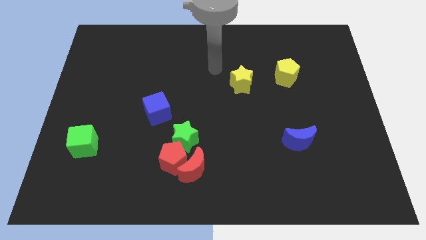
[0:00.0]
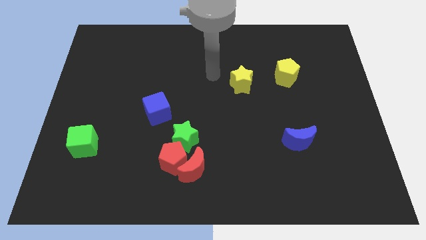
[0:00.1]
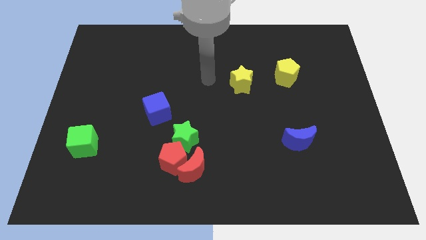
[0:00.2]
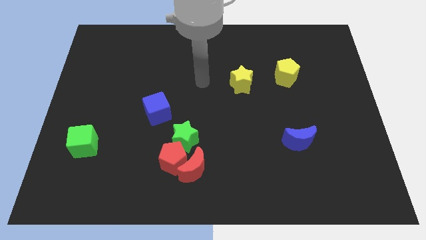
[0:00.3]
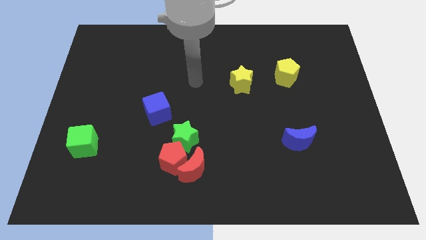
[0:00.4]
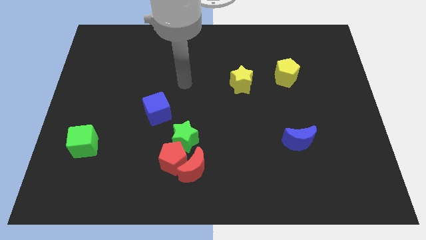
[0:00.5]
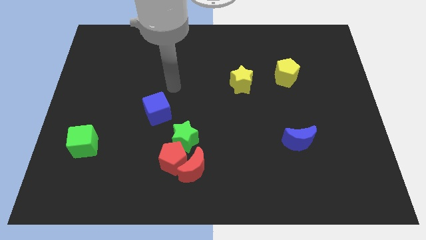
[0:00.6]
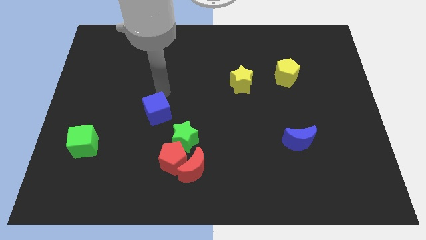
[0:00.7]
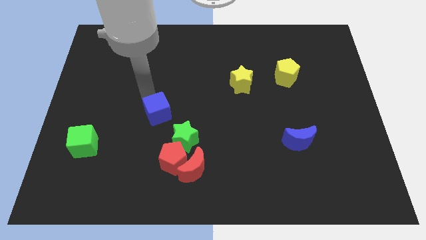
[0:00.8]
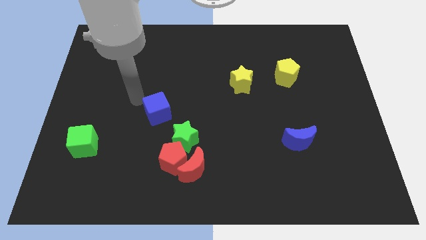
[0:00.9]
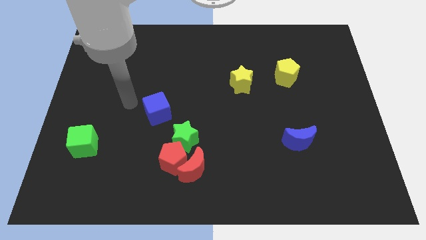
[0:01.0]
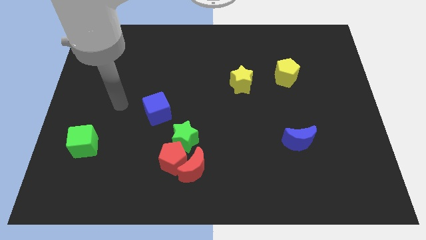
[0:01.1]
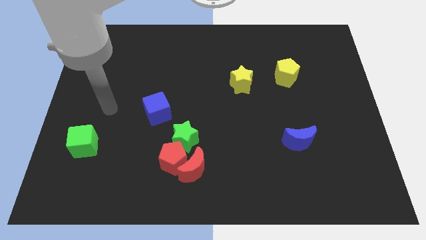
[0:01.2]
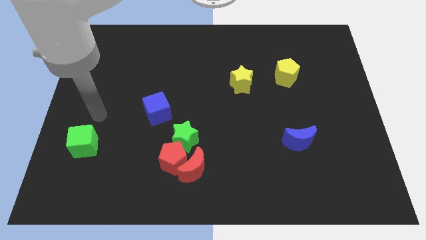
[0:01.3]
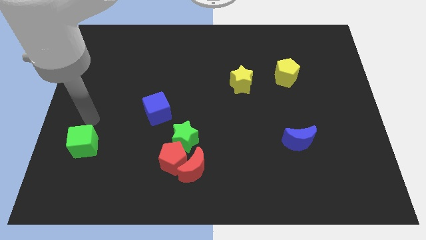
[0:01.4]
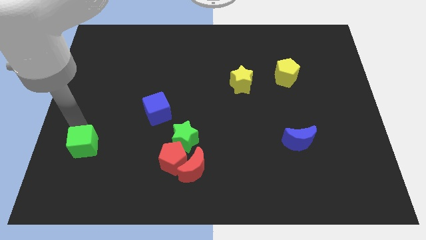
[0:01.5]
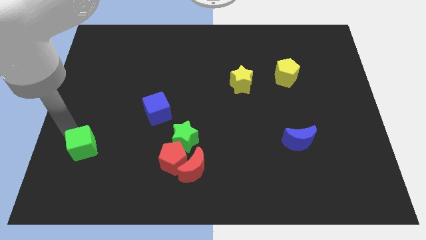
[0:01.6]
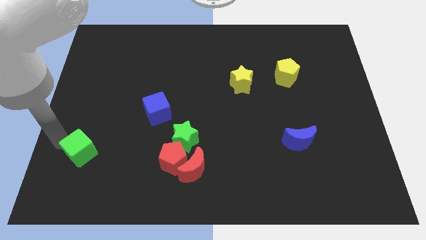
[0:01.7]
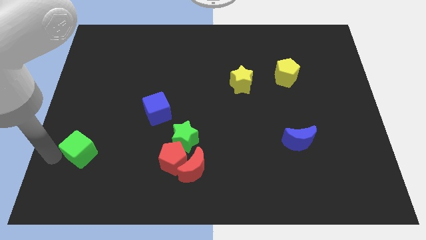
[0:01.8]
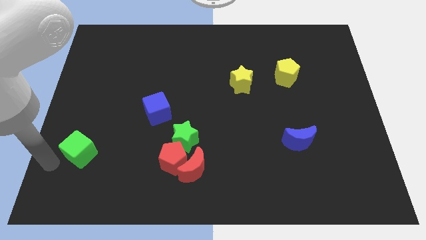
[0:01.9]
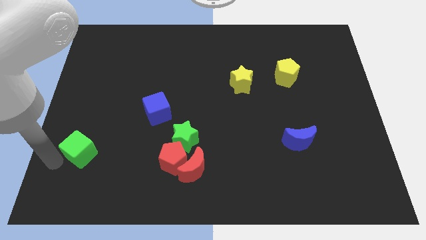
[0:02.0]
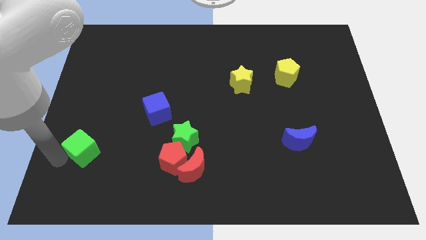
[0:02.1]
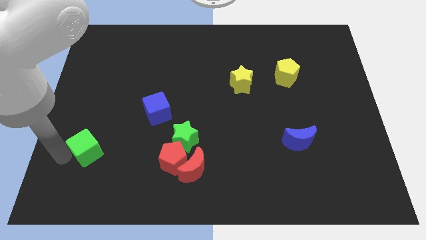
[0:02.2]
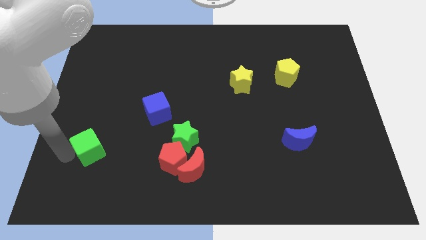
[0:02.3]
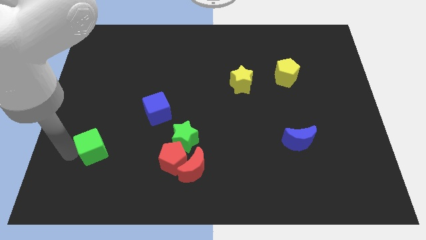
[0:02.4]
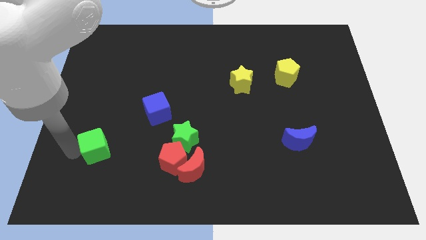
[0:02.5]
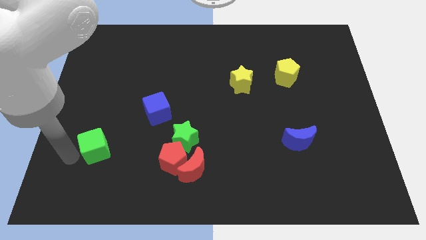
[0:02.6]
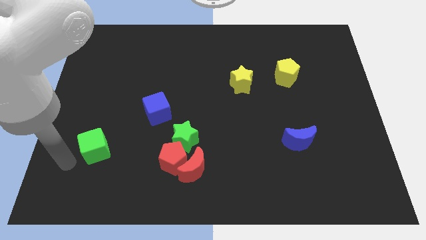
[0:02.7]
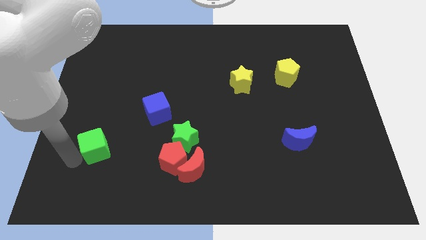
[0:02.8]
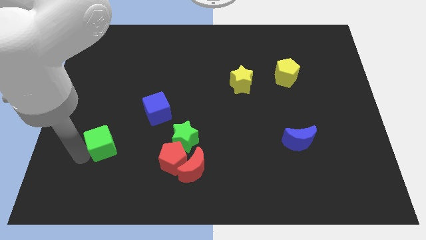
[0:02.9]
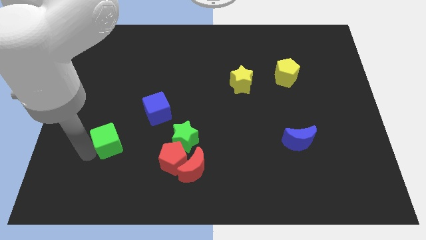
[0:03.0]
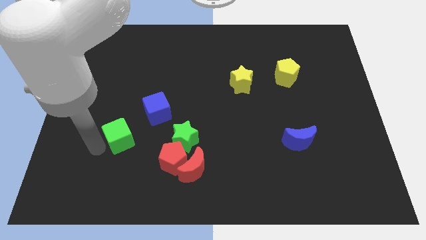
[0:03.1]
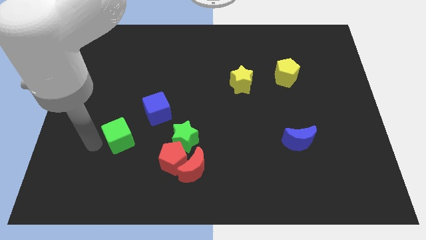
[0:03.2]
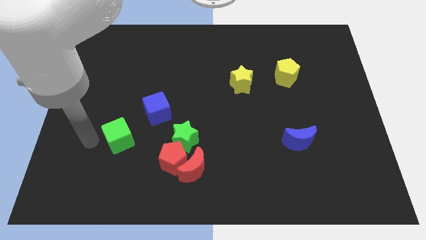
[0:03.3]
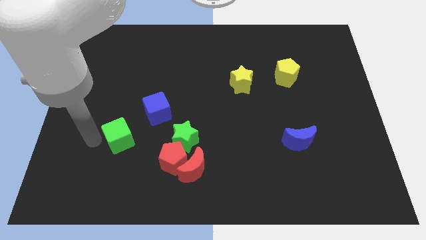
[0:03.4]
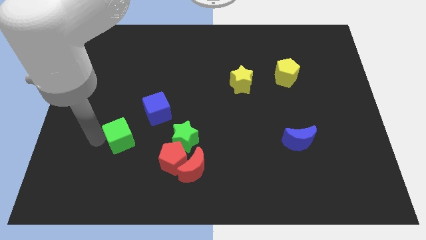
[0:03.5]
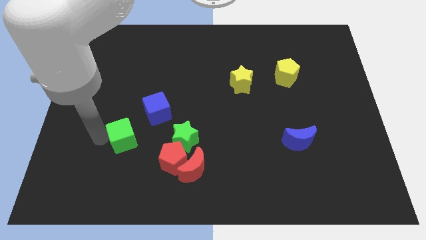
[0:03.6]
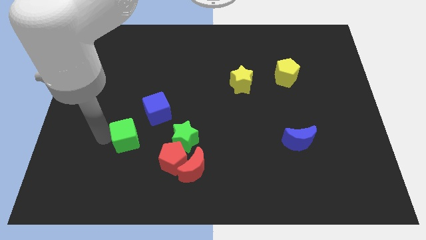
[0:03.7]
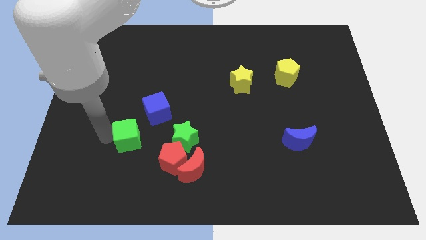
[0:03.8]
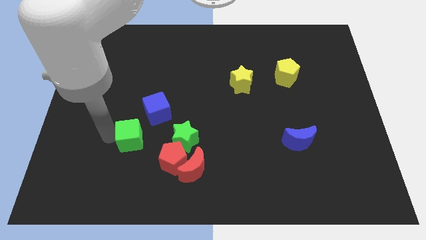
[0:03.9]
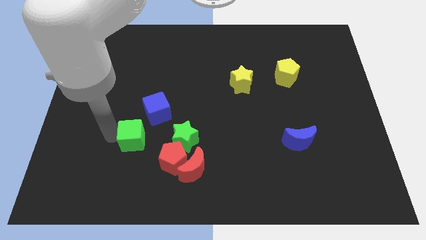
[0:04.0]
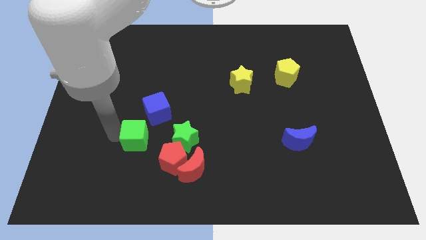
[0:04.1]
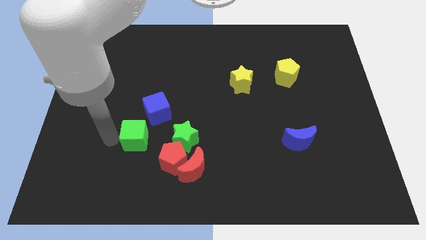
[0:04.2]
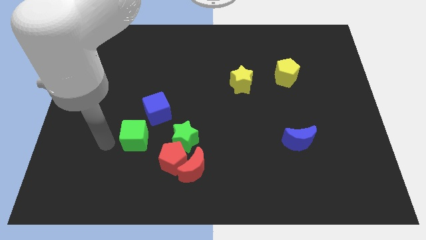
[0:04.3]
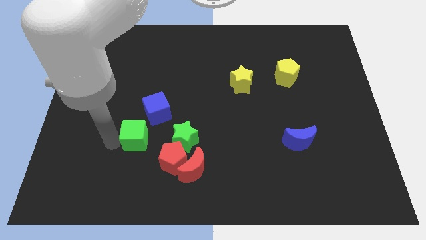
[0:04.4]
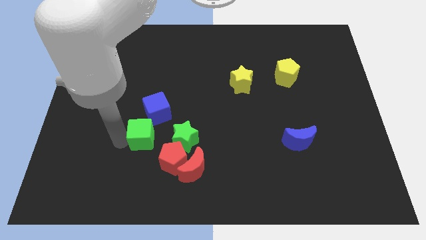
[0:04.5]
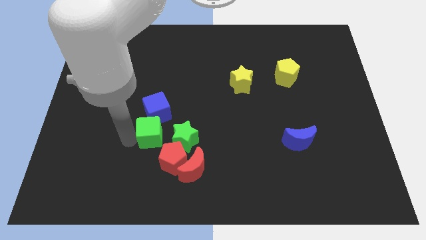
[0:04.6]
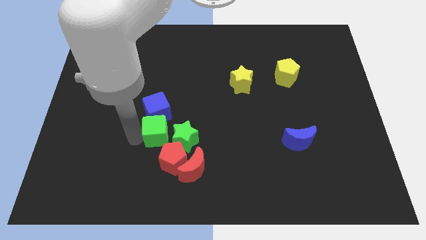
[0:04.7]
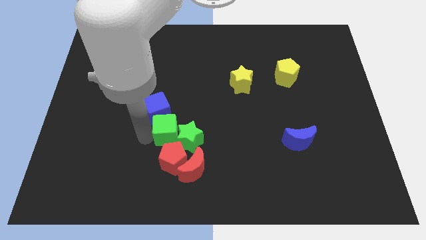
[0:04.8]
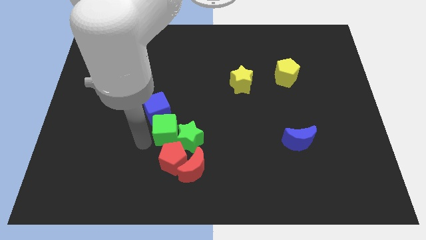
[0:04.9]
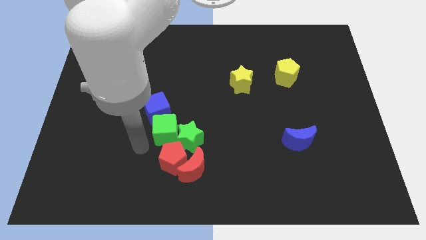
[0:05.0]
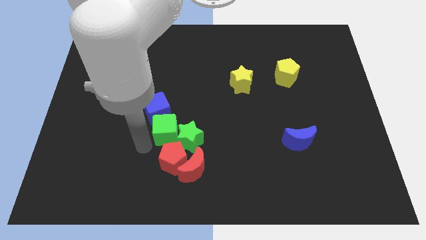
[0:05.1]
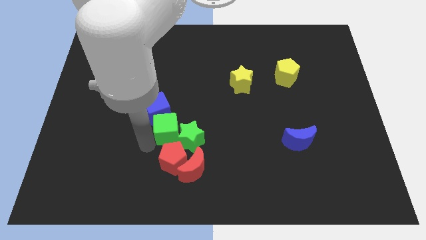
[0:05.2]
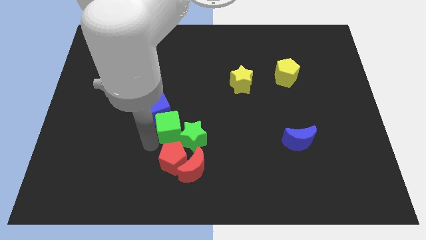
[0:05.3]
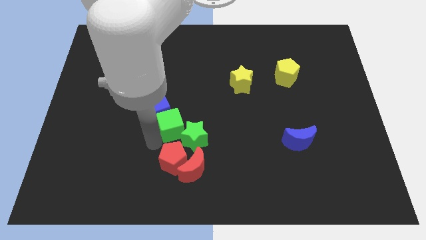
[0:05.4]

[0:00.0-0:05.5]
put the green cube right of the blue cube

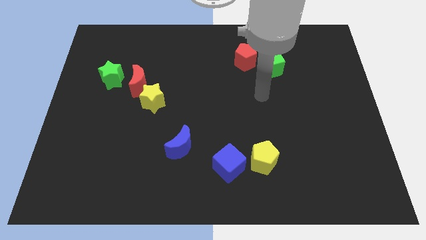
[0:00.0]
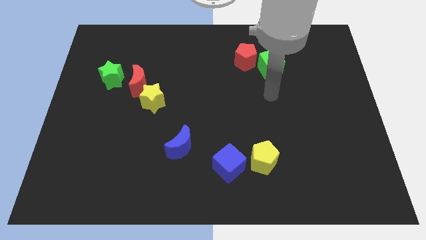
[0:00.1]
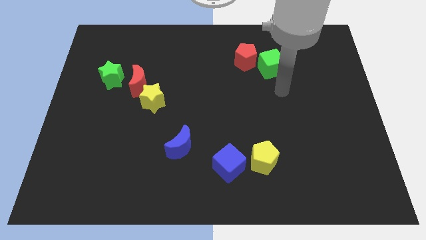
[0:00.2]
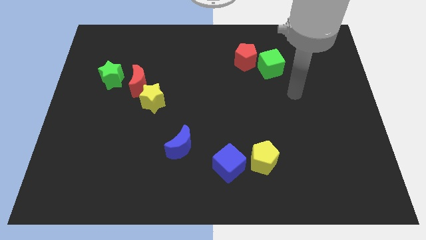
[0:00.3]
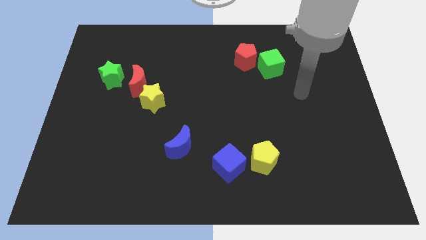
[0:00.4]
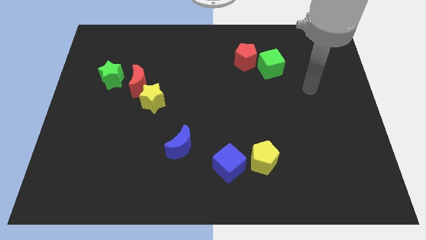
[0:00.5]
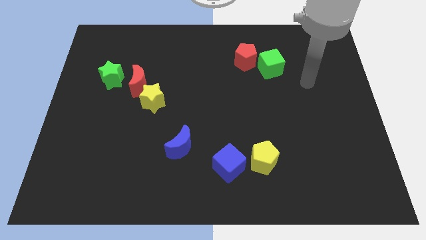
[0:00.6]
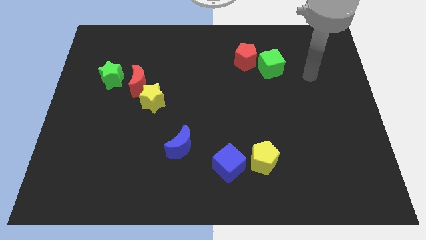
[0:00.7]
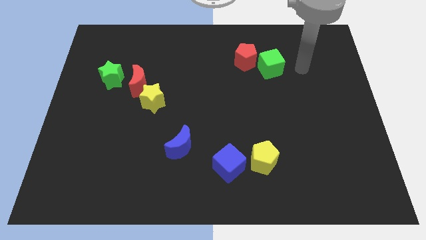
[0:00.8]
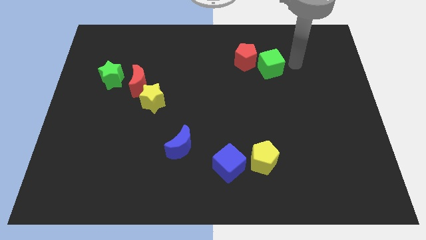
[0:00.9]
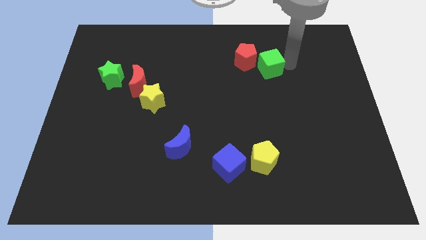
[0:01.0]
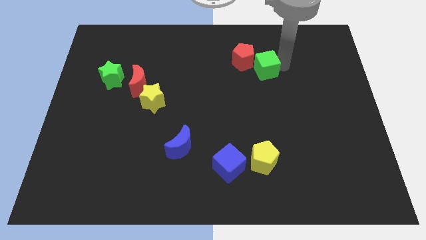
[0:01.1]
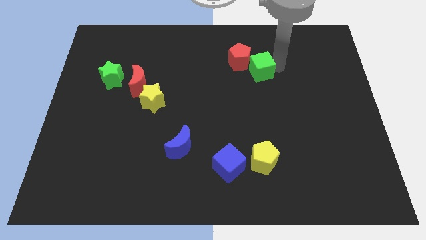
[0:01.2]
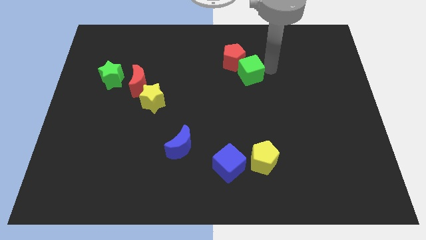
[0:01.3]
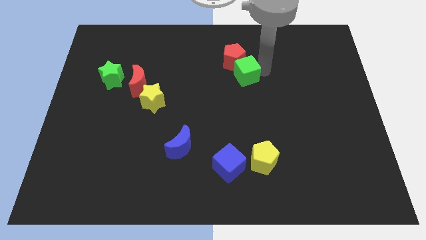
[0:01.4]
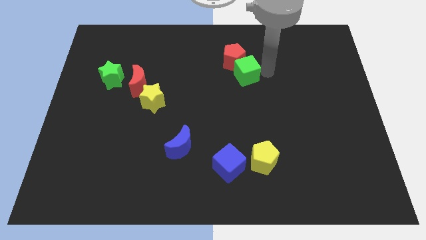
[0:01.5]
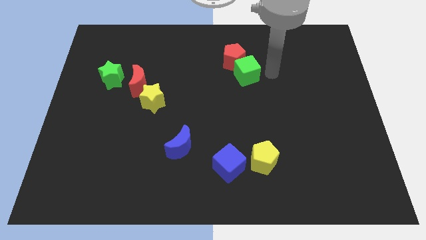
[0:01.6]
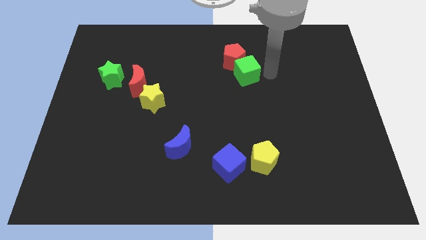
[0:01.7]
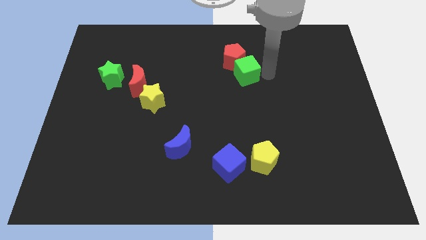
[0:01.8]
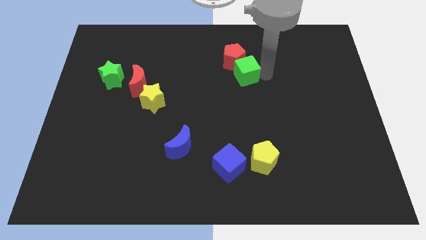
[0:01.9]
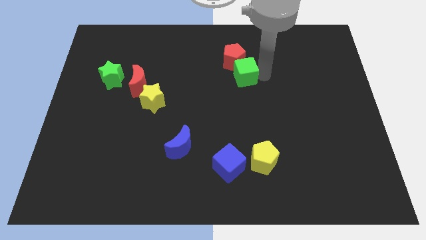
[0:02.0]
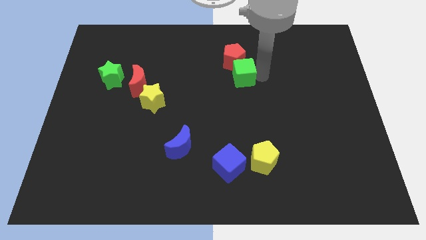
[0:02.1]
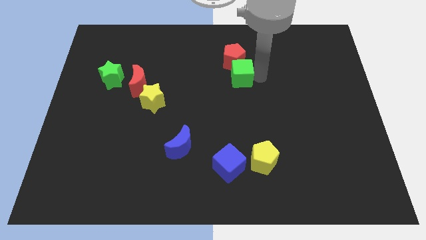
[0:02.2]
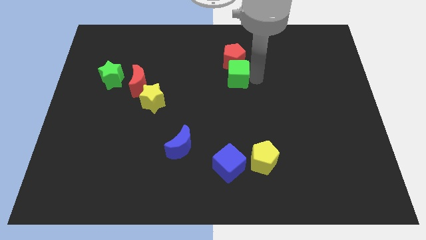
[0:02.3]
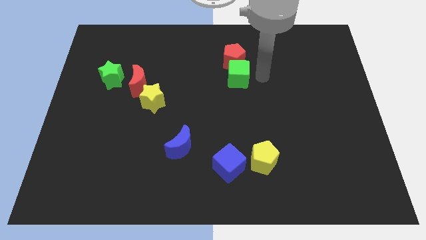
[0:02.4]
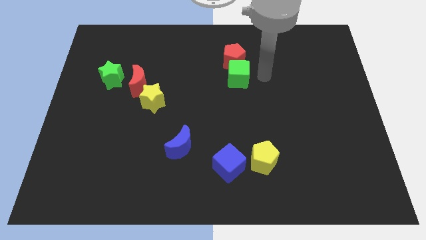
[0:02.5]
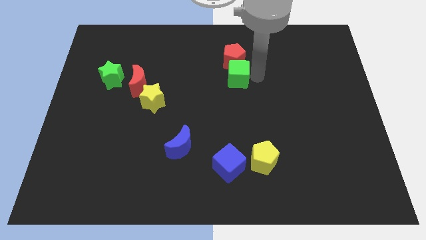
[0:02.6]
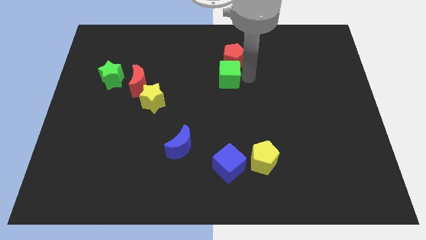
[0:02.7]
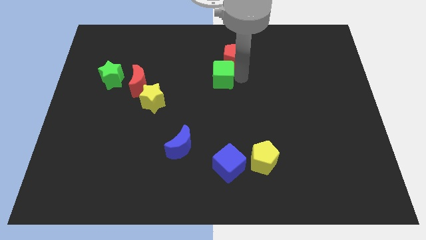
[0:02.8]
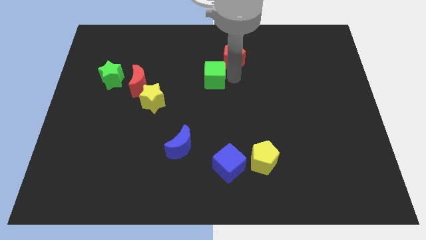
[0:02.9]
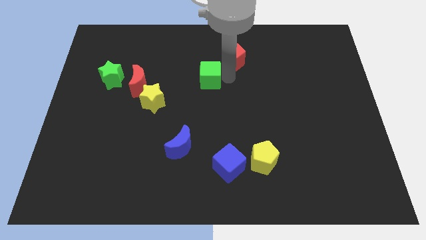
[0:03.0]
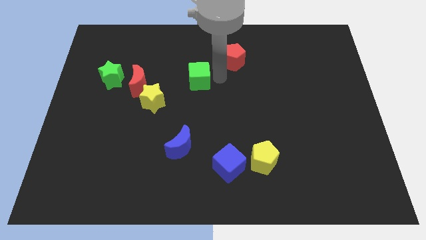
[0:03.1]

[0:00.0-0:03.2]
push the green cube diagonally up and to the right of the yellow star
